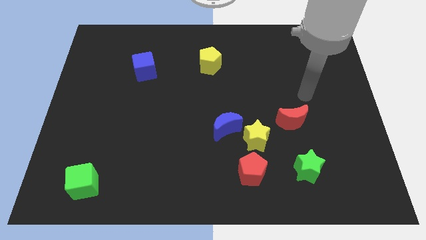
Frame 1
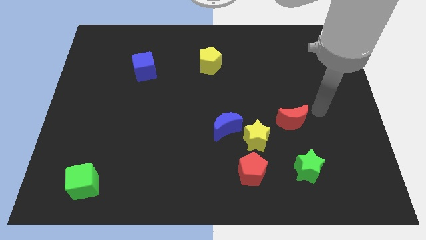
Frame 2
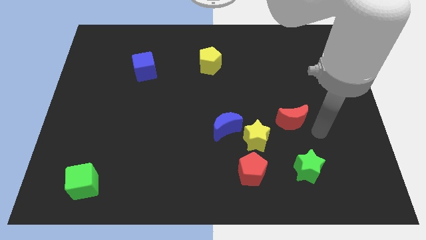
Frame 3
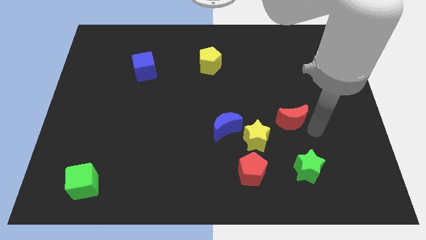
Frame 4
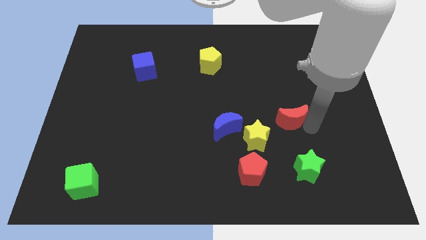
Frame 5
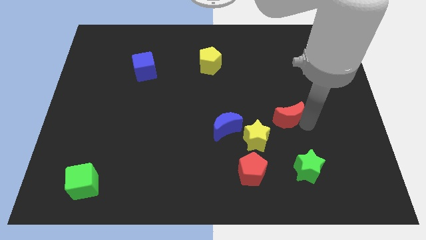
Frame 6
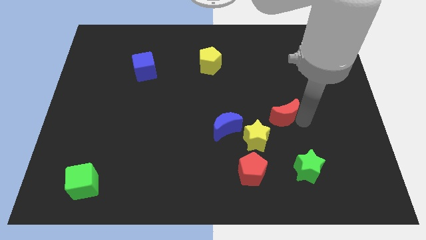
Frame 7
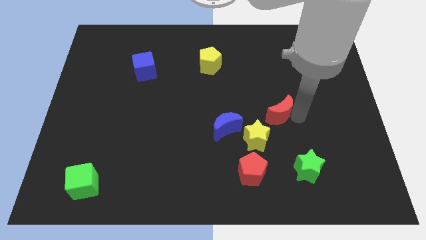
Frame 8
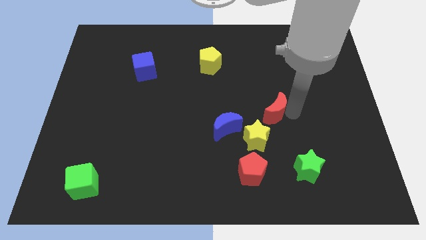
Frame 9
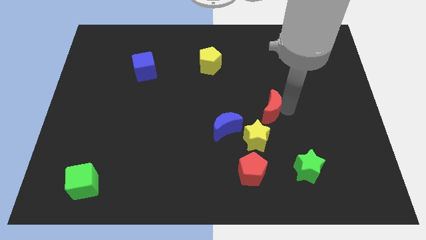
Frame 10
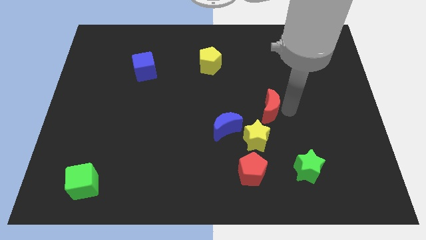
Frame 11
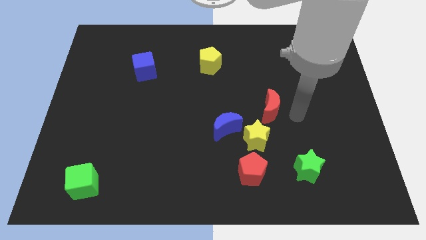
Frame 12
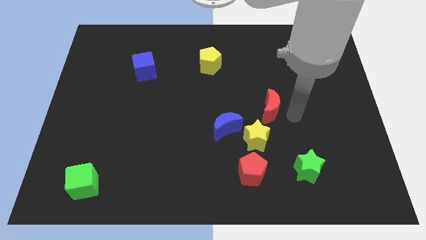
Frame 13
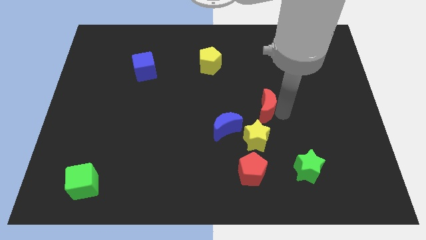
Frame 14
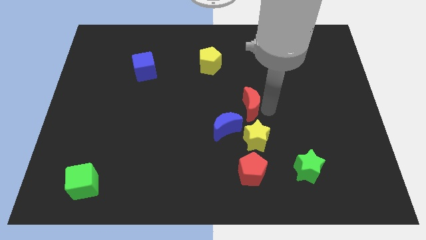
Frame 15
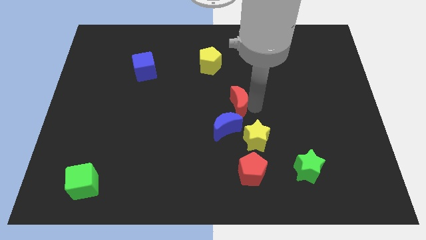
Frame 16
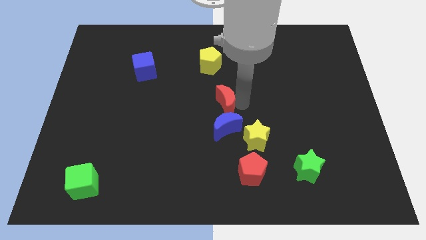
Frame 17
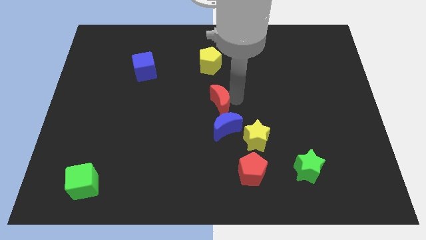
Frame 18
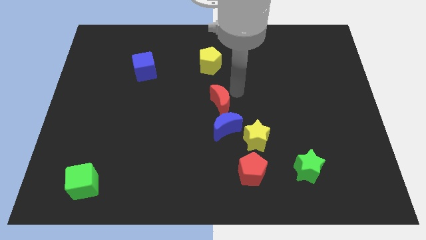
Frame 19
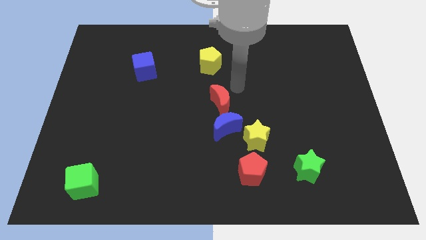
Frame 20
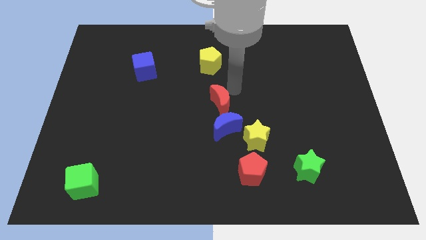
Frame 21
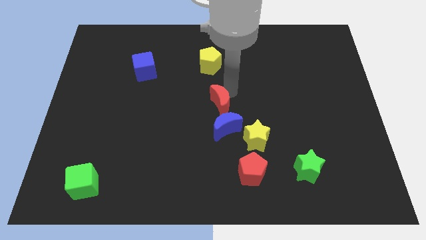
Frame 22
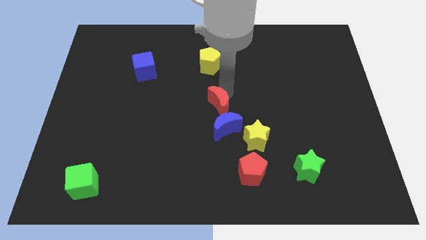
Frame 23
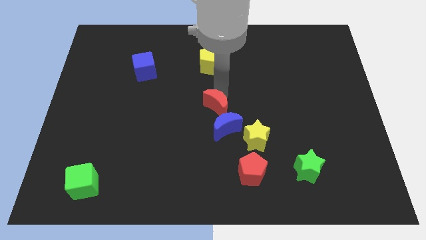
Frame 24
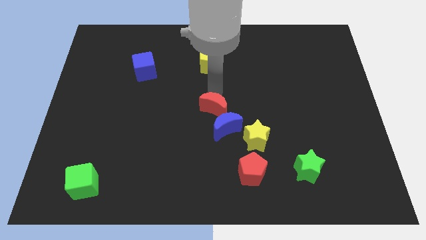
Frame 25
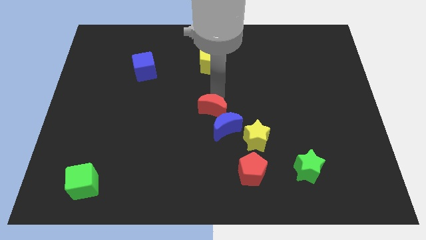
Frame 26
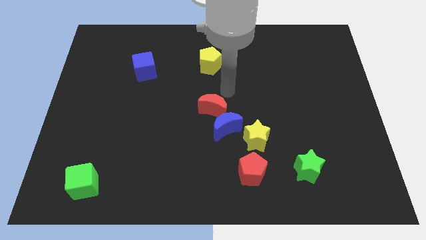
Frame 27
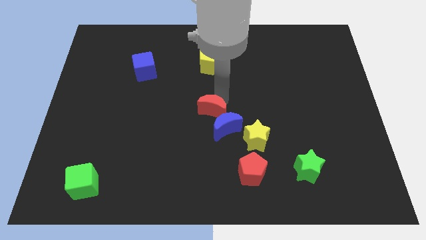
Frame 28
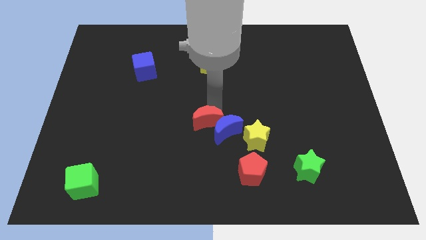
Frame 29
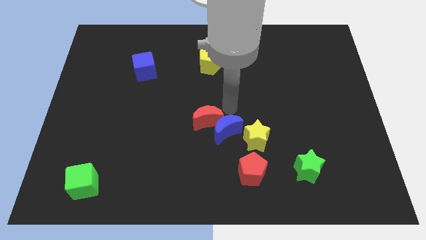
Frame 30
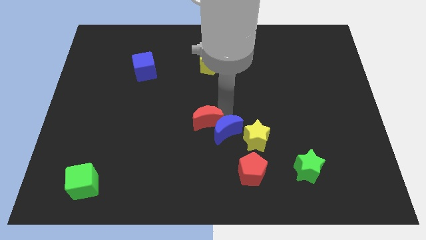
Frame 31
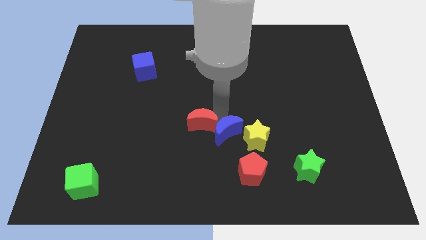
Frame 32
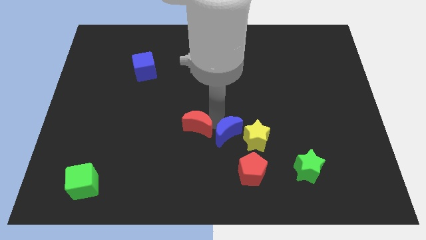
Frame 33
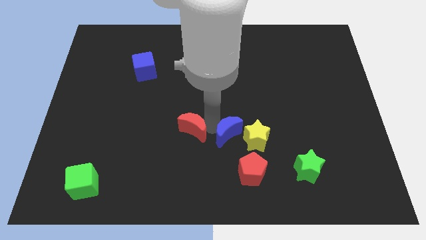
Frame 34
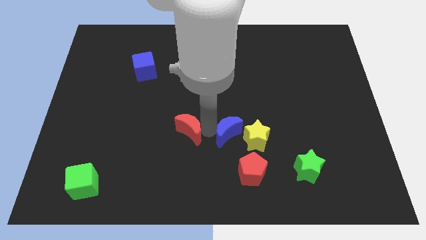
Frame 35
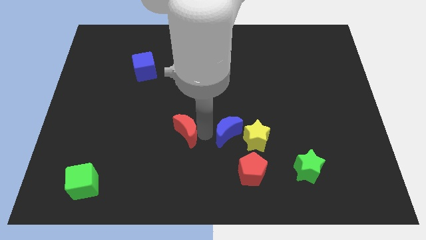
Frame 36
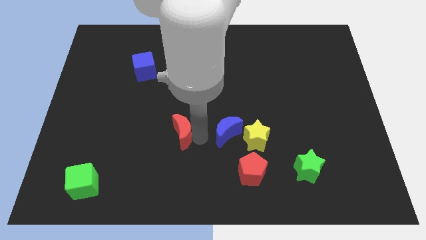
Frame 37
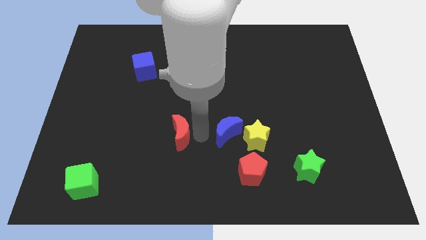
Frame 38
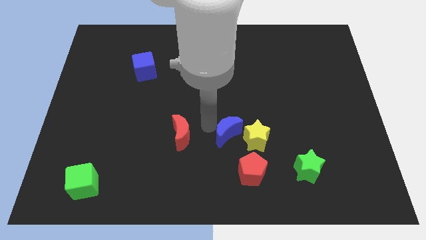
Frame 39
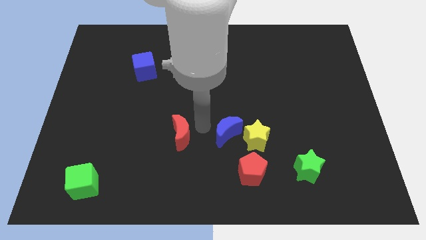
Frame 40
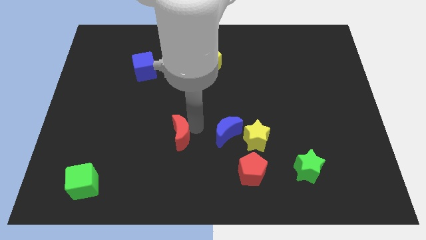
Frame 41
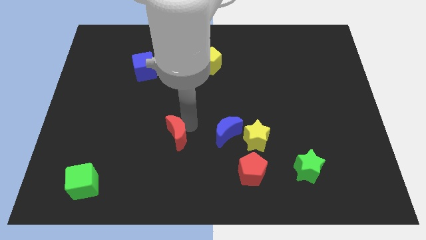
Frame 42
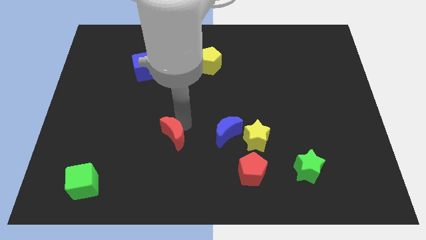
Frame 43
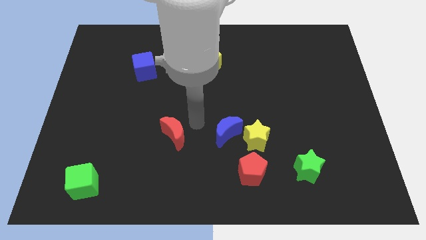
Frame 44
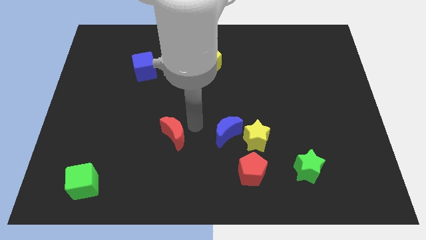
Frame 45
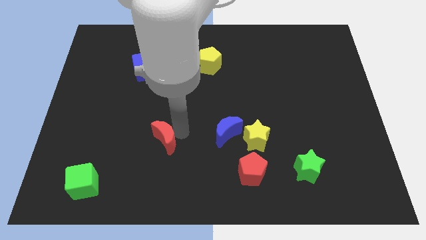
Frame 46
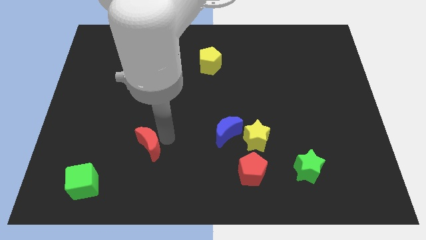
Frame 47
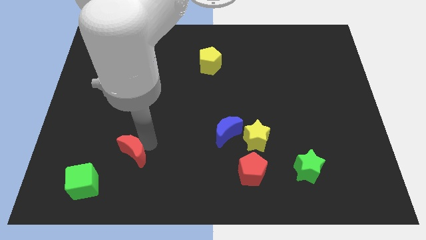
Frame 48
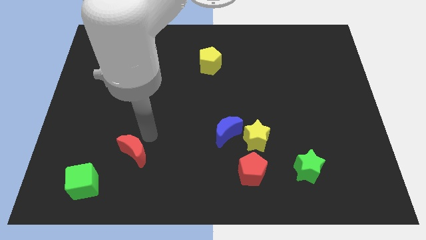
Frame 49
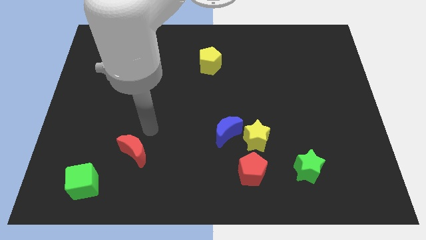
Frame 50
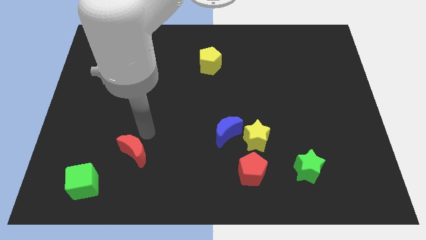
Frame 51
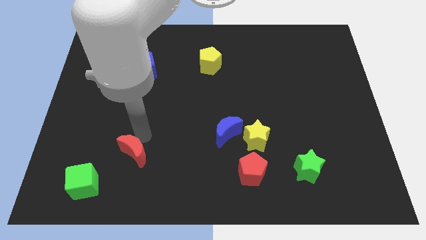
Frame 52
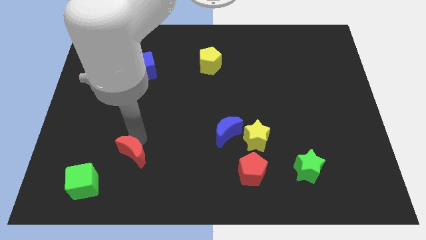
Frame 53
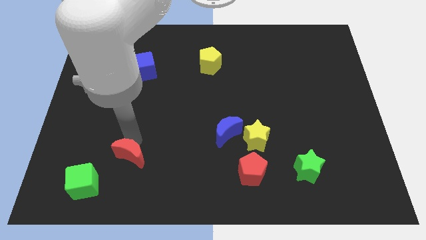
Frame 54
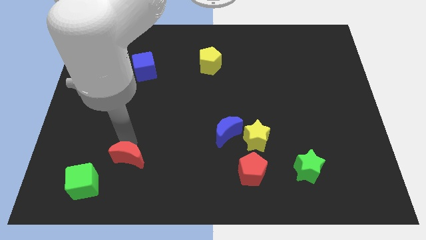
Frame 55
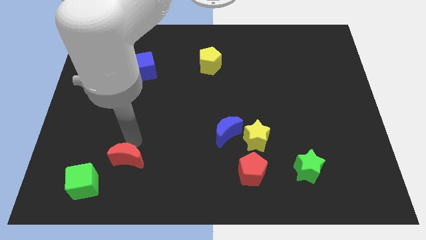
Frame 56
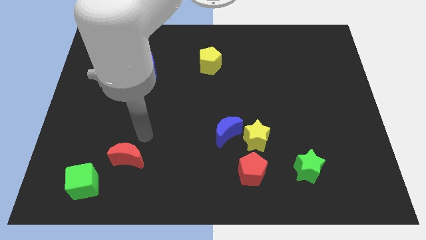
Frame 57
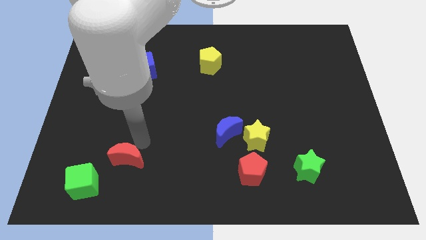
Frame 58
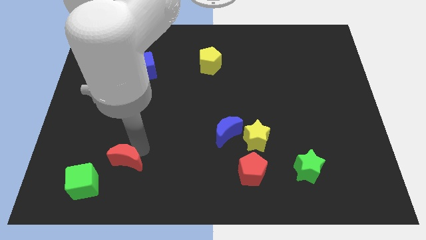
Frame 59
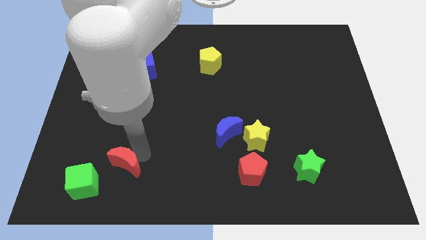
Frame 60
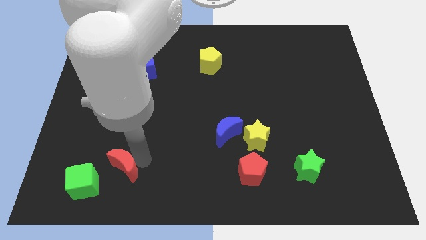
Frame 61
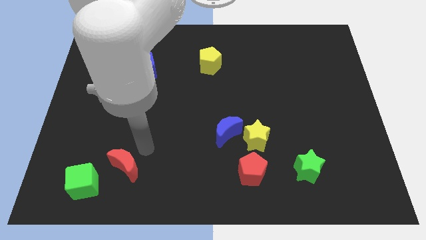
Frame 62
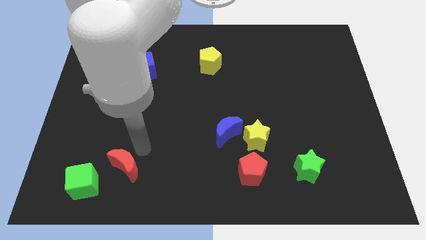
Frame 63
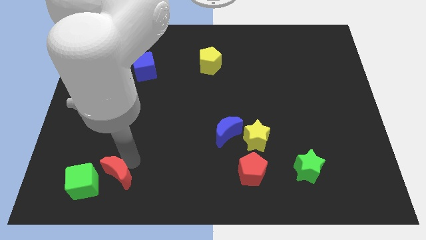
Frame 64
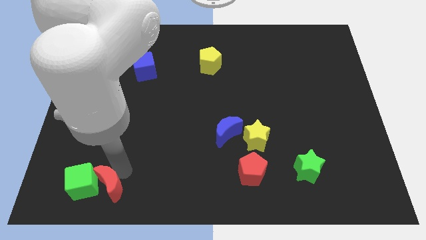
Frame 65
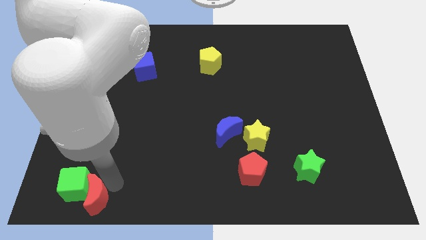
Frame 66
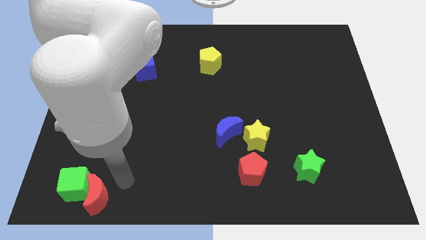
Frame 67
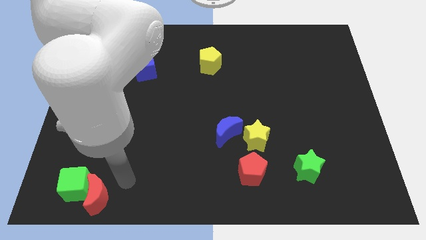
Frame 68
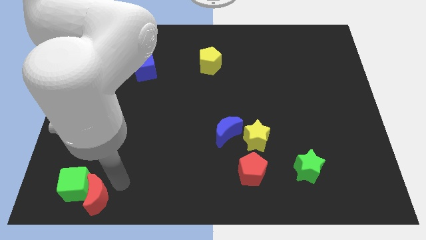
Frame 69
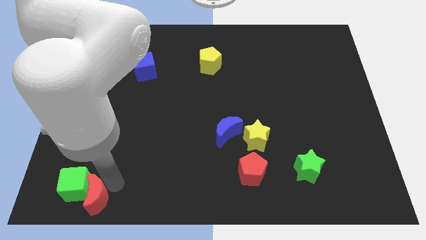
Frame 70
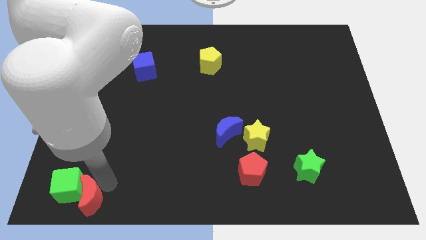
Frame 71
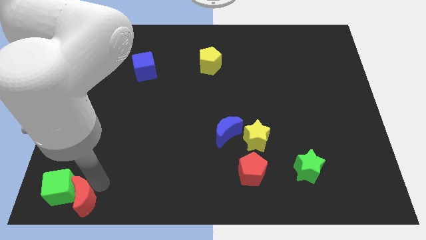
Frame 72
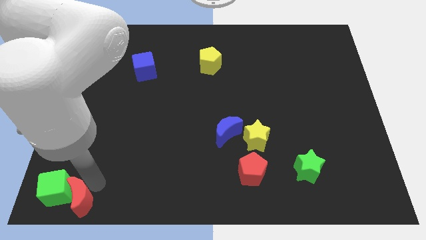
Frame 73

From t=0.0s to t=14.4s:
put the red moon to the lower left corner
